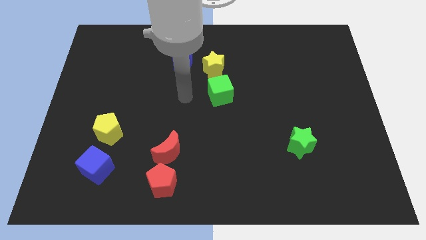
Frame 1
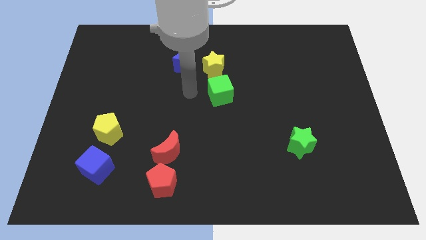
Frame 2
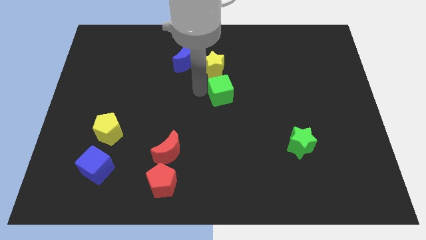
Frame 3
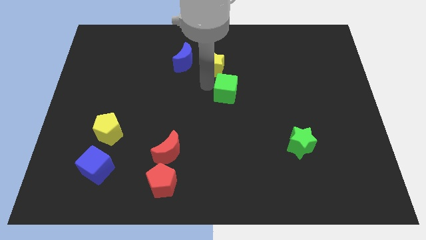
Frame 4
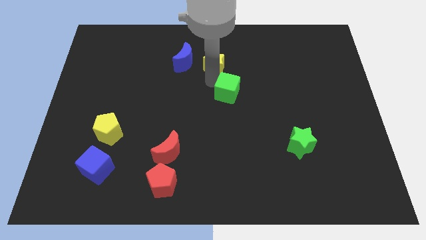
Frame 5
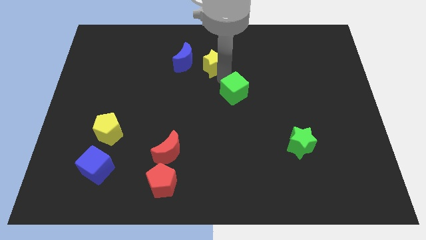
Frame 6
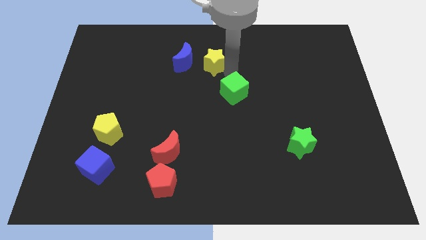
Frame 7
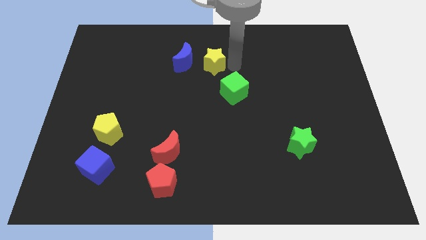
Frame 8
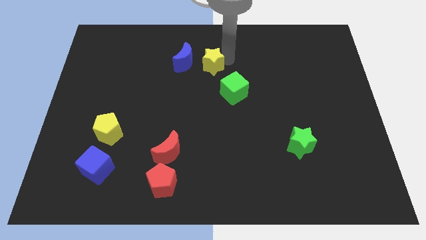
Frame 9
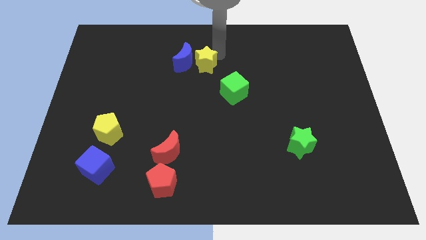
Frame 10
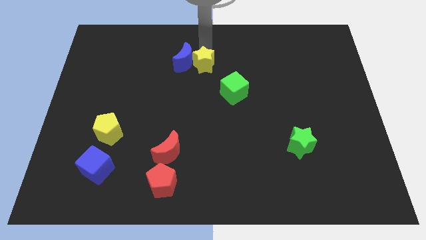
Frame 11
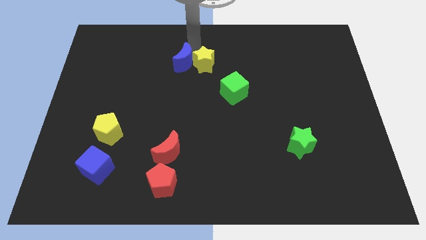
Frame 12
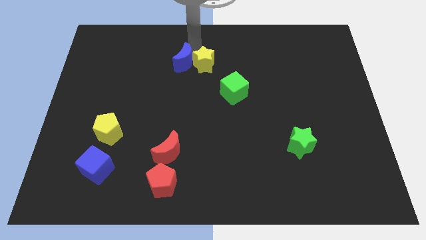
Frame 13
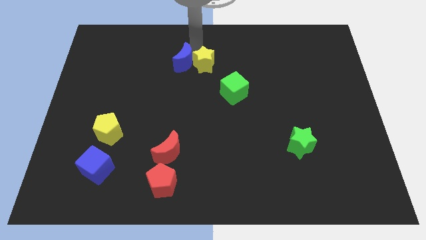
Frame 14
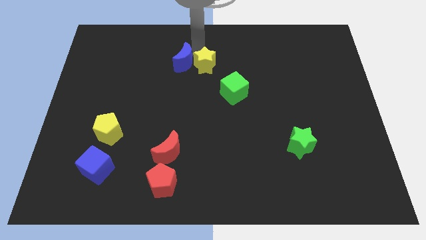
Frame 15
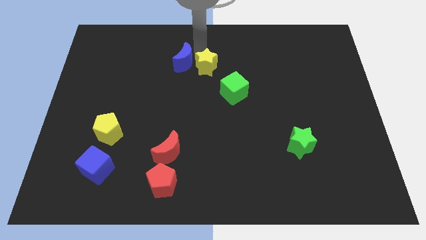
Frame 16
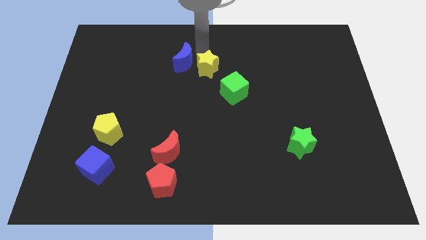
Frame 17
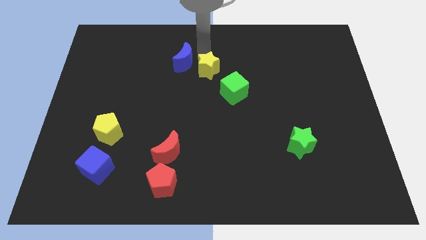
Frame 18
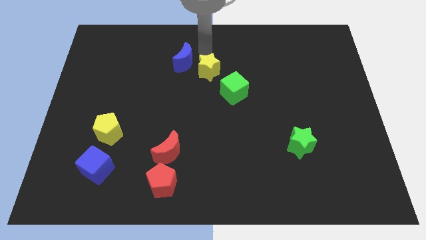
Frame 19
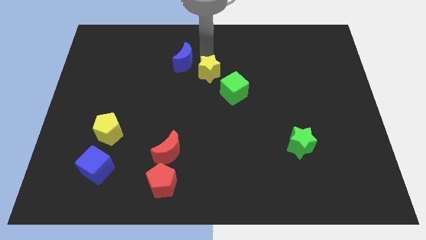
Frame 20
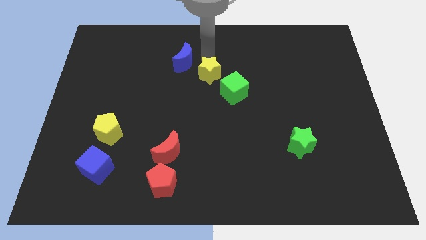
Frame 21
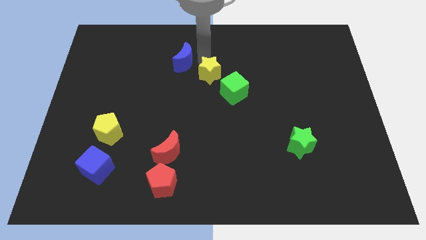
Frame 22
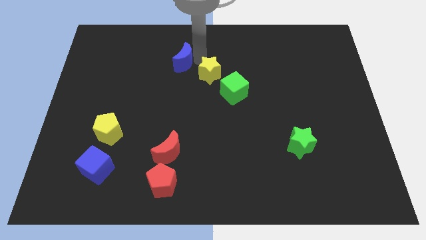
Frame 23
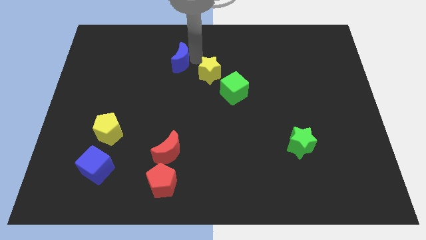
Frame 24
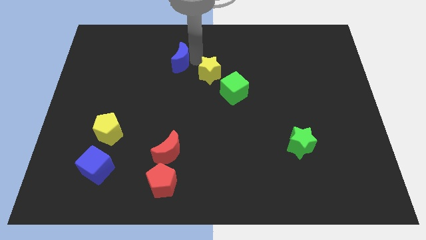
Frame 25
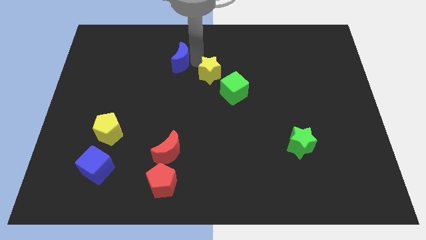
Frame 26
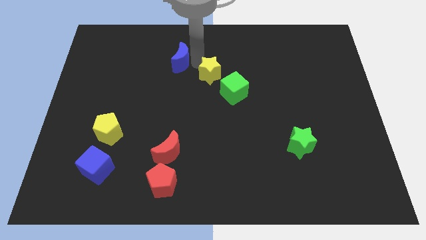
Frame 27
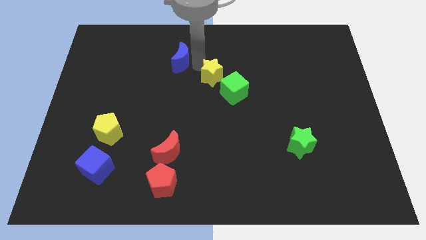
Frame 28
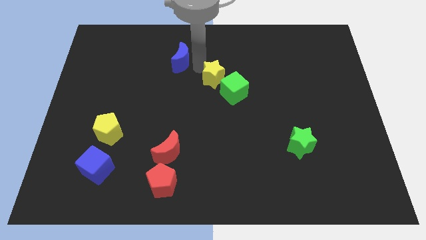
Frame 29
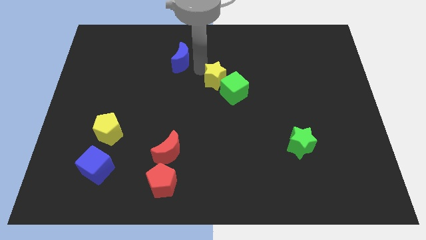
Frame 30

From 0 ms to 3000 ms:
slide the yellow star close to the green cube

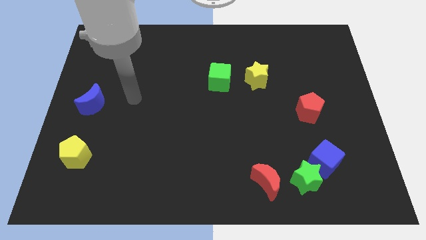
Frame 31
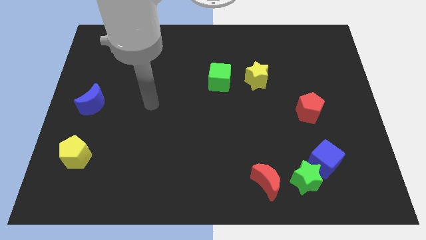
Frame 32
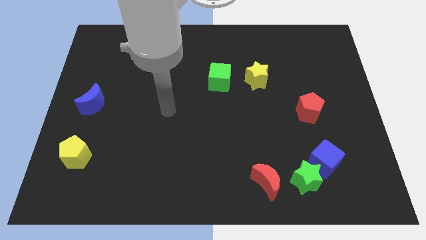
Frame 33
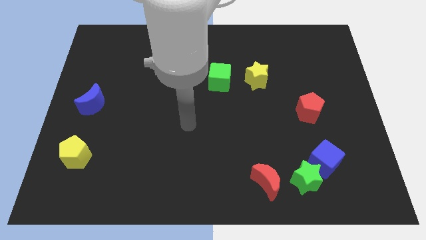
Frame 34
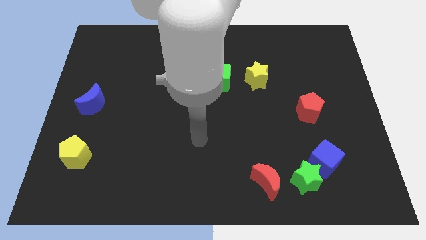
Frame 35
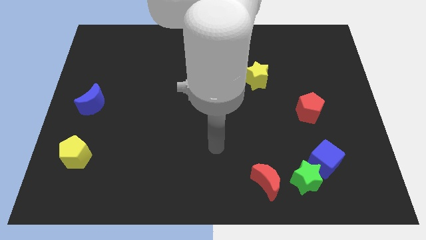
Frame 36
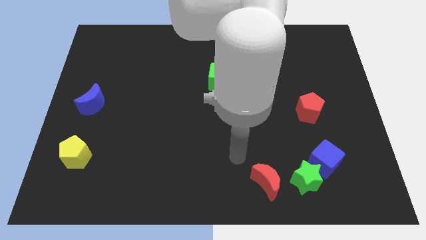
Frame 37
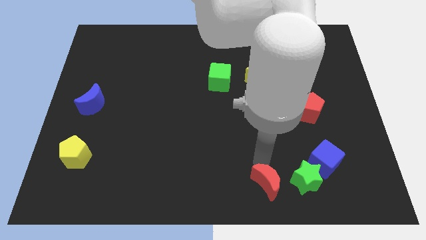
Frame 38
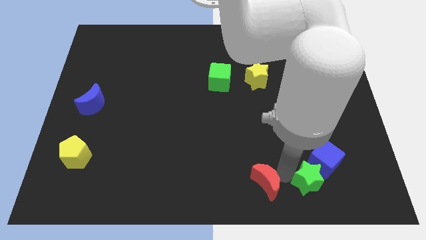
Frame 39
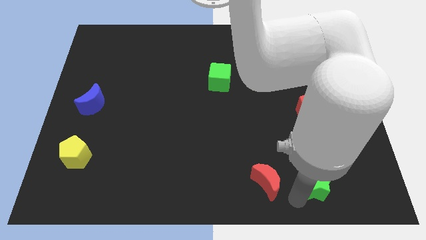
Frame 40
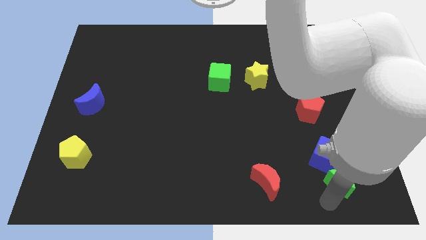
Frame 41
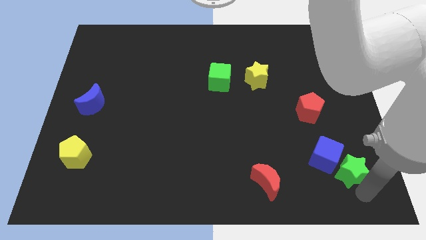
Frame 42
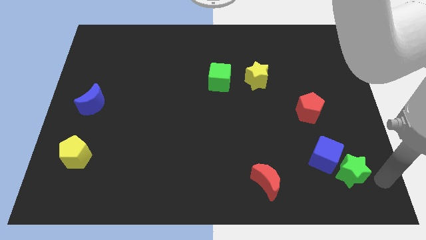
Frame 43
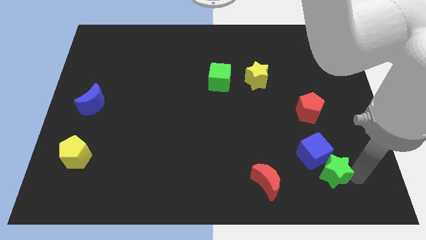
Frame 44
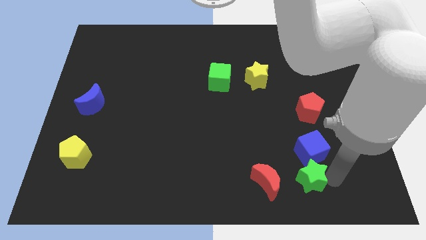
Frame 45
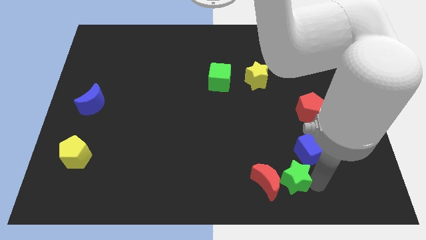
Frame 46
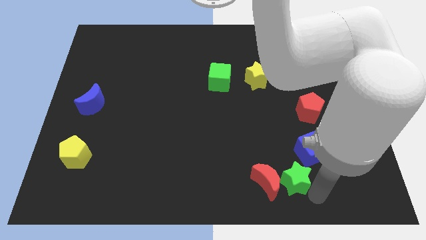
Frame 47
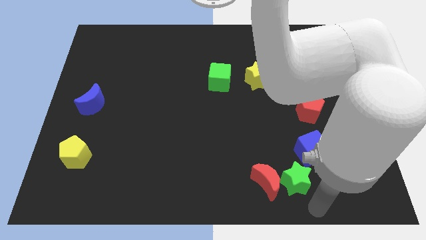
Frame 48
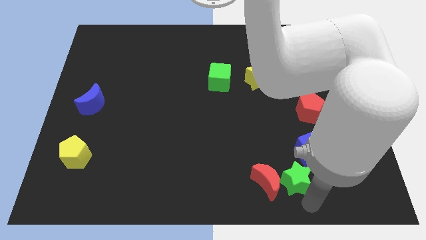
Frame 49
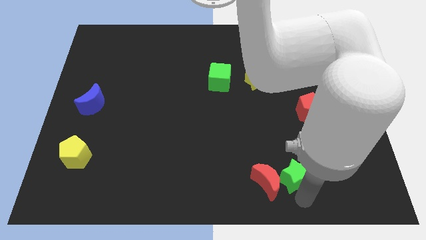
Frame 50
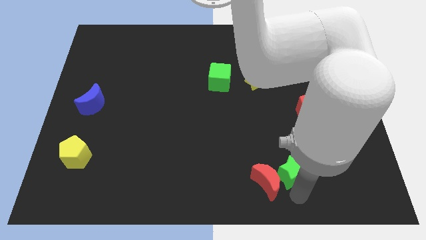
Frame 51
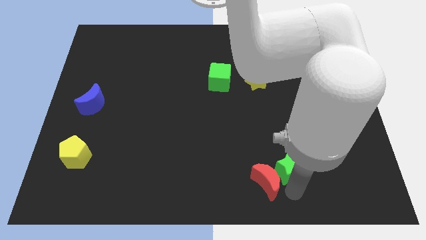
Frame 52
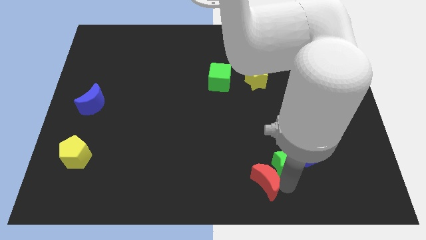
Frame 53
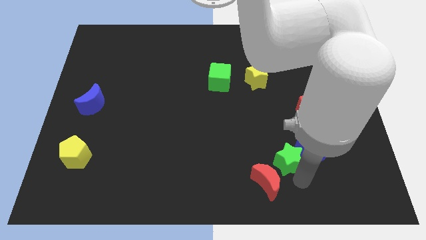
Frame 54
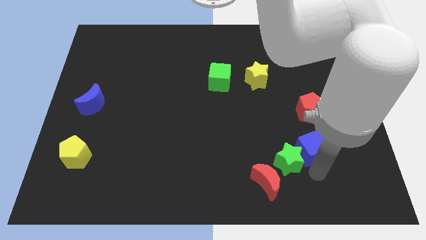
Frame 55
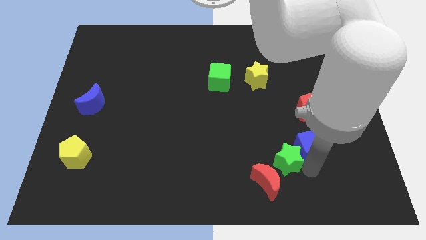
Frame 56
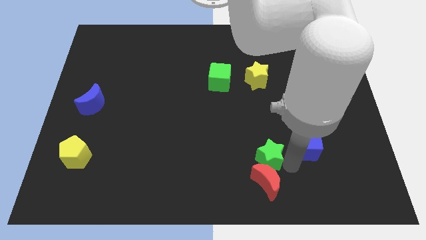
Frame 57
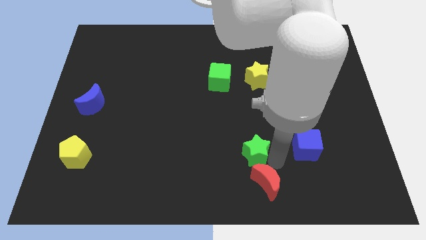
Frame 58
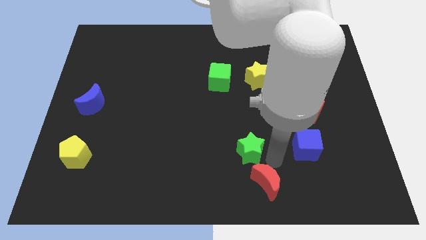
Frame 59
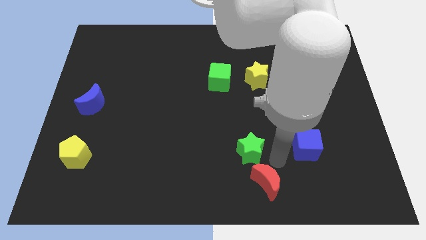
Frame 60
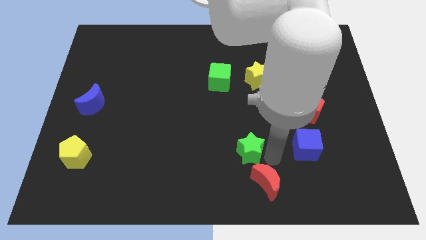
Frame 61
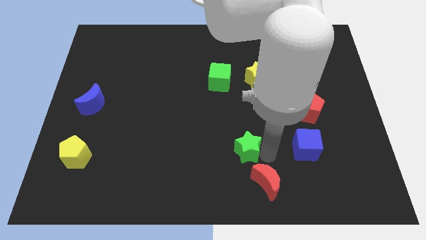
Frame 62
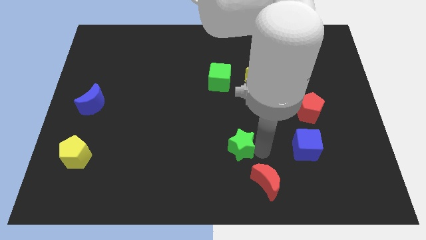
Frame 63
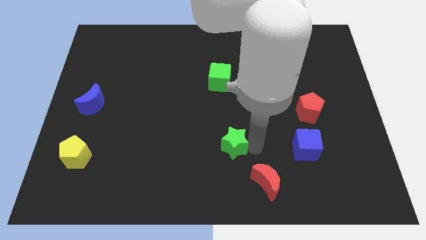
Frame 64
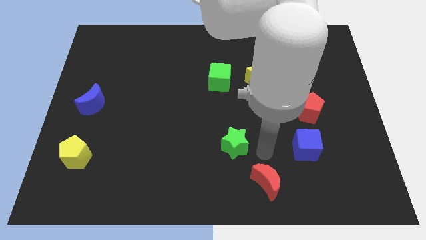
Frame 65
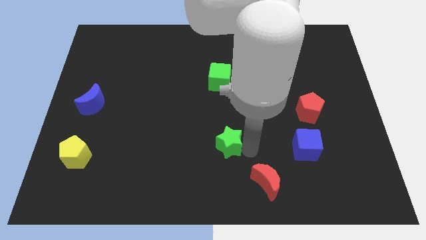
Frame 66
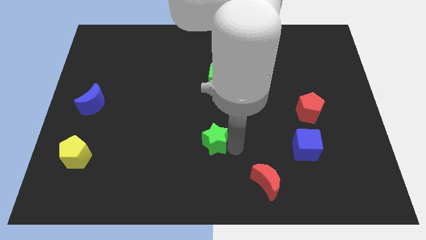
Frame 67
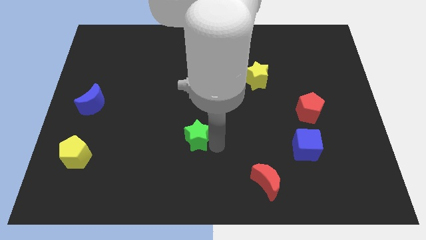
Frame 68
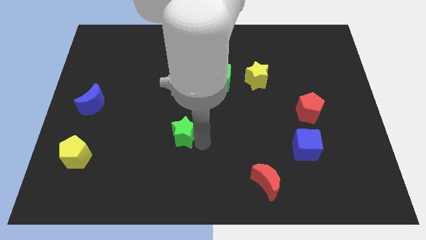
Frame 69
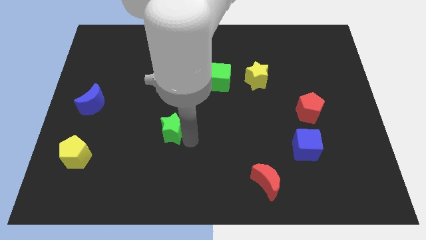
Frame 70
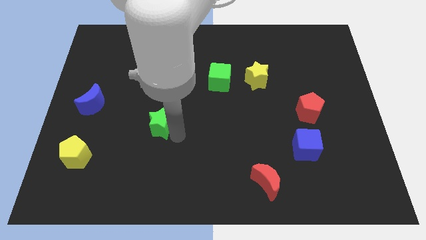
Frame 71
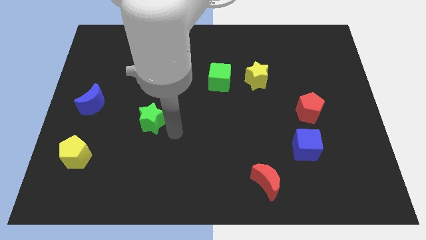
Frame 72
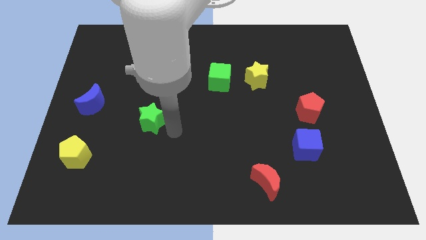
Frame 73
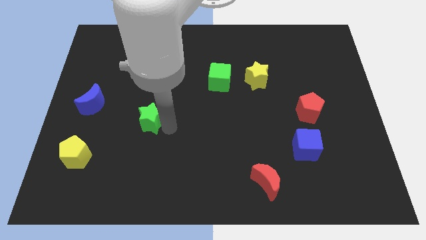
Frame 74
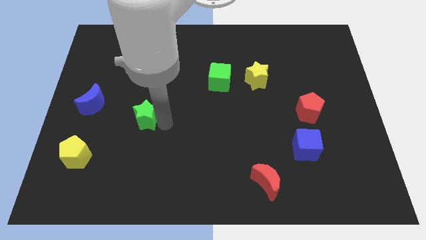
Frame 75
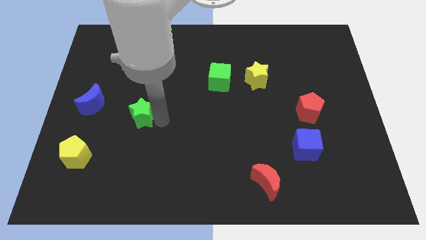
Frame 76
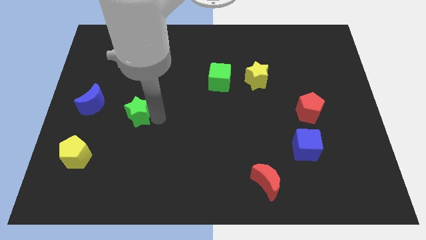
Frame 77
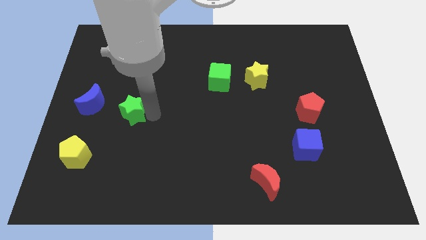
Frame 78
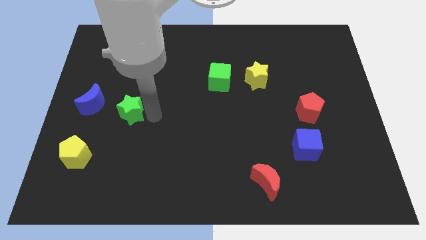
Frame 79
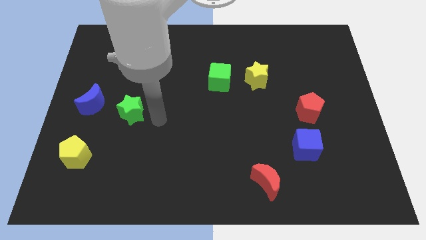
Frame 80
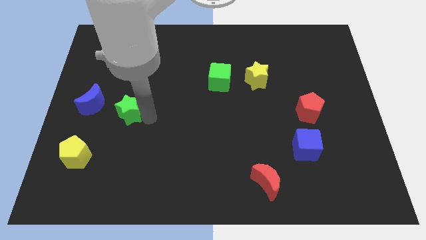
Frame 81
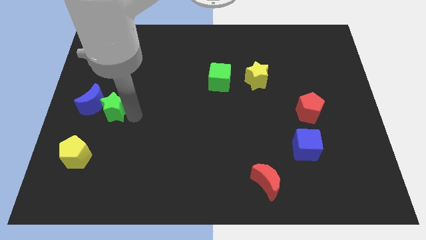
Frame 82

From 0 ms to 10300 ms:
slide the green star to the blue moon
